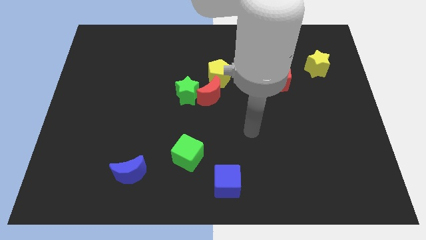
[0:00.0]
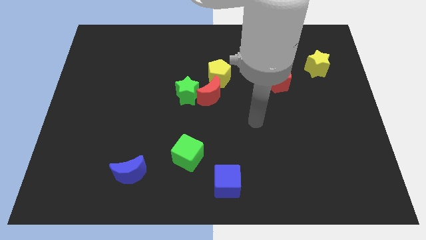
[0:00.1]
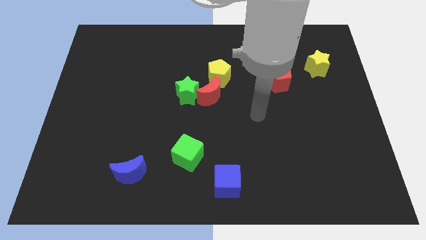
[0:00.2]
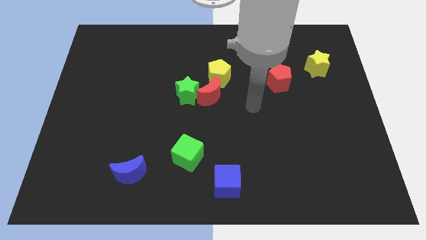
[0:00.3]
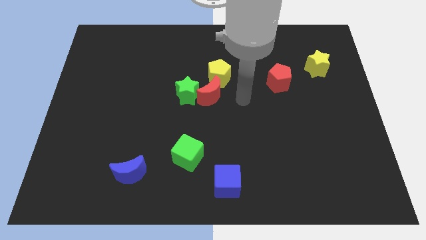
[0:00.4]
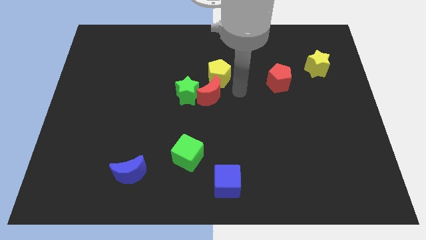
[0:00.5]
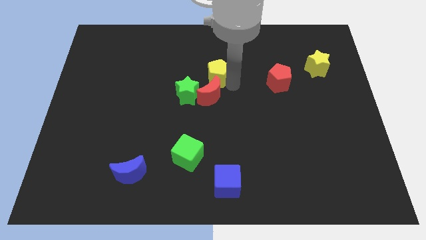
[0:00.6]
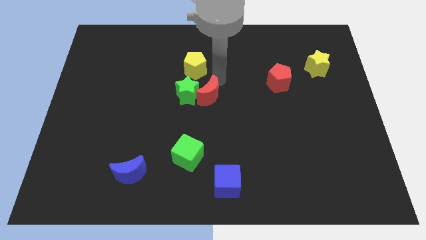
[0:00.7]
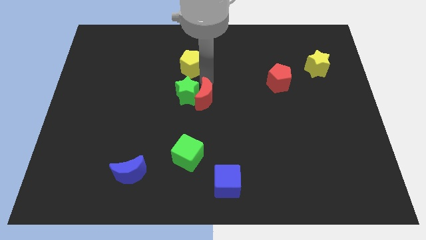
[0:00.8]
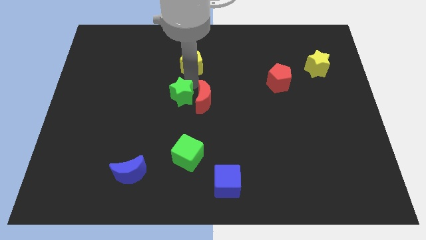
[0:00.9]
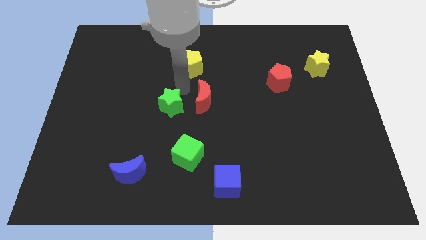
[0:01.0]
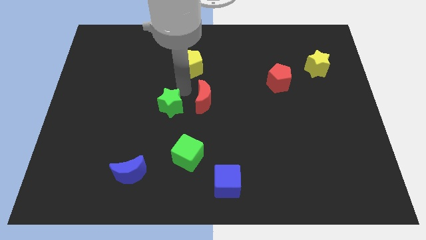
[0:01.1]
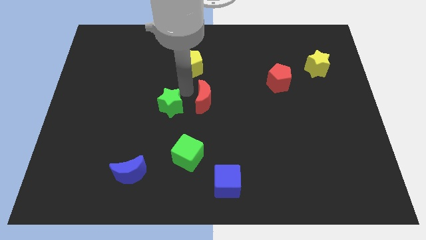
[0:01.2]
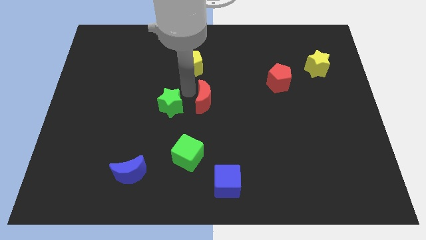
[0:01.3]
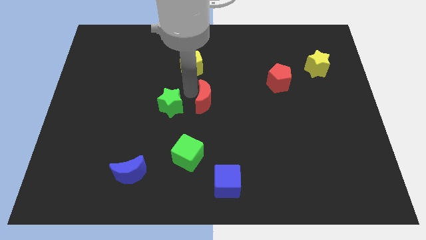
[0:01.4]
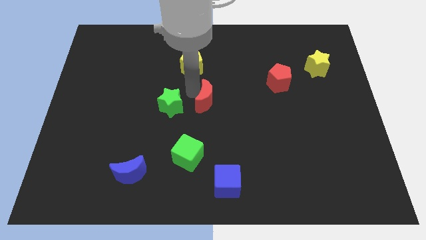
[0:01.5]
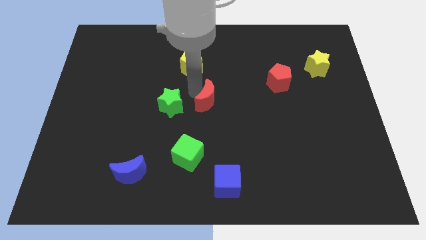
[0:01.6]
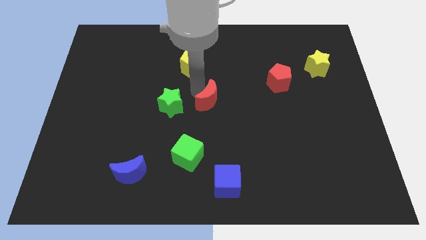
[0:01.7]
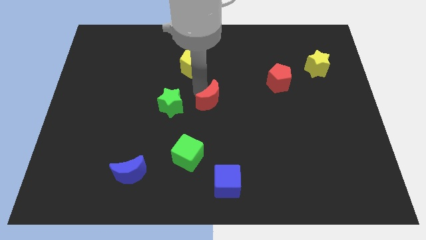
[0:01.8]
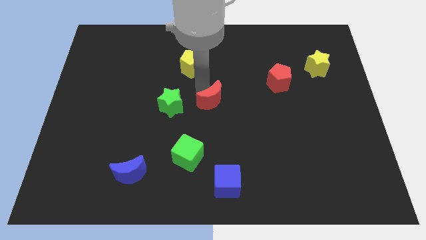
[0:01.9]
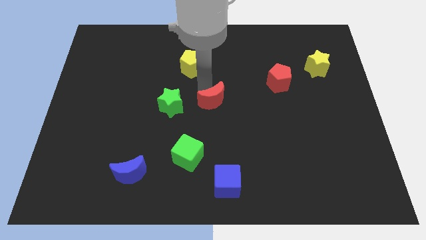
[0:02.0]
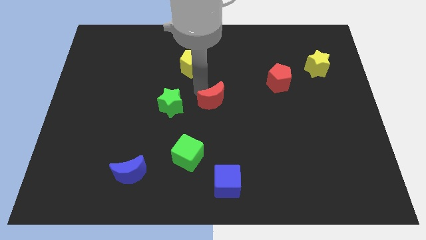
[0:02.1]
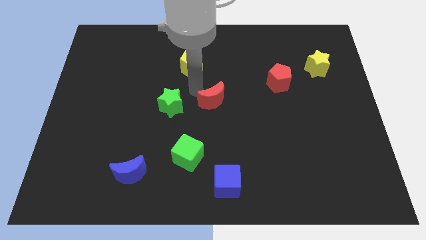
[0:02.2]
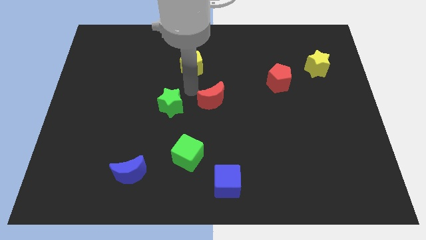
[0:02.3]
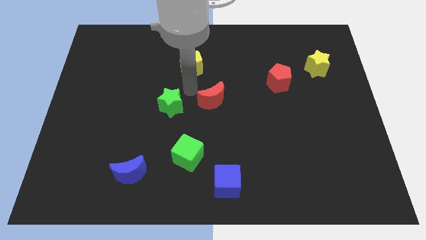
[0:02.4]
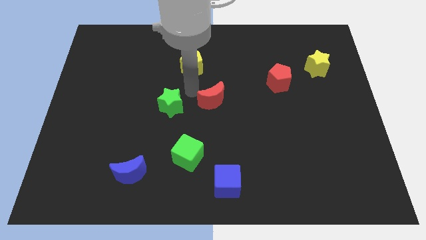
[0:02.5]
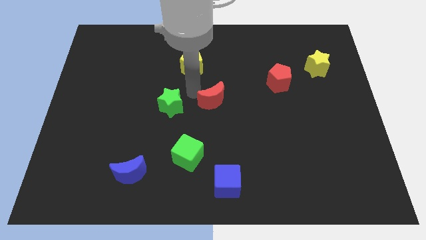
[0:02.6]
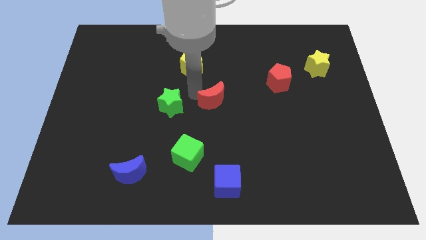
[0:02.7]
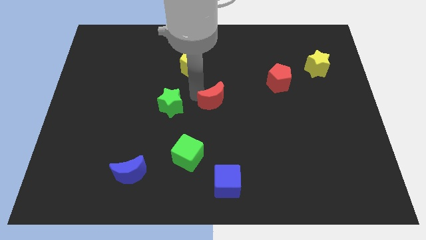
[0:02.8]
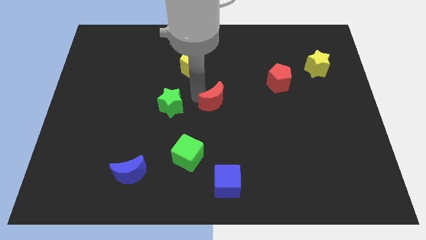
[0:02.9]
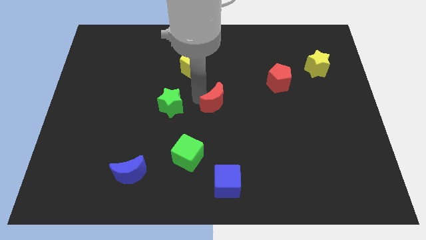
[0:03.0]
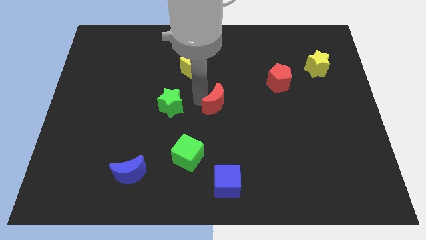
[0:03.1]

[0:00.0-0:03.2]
separate the red moon from the green star and yellow pentagon

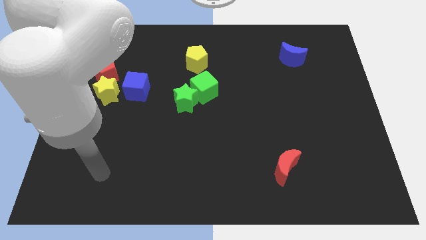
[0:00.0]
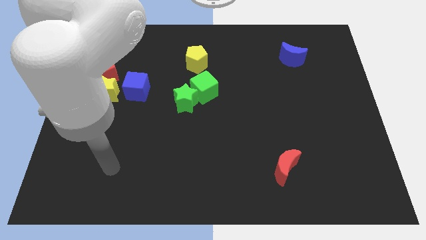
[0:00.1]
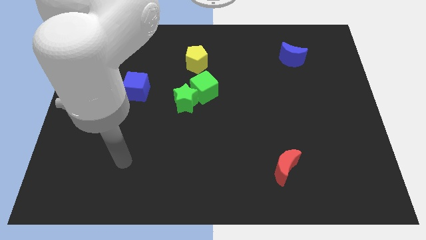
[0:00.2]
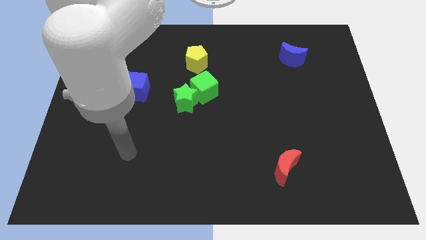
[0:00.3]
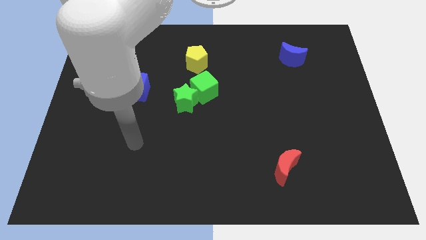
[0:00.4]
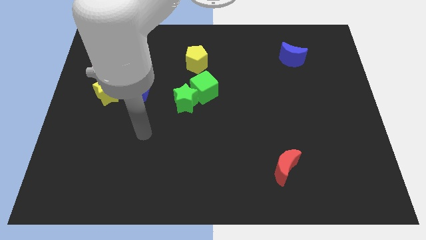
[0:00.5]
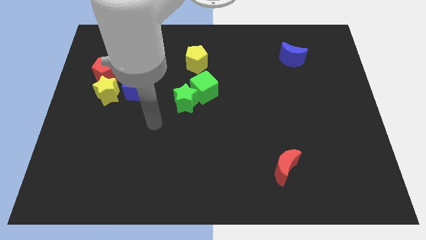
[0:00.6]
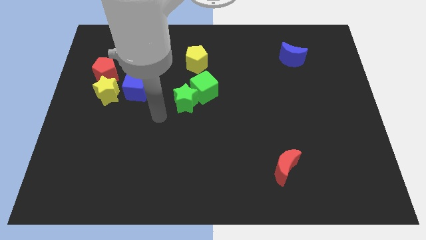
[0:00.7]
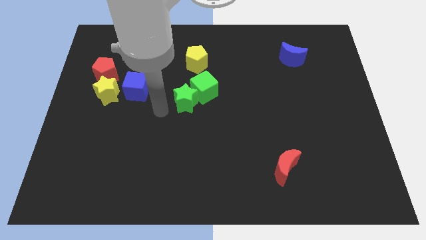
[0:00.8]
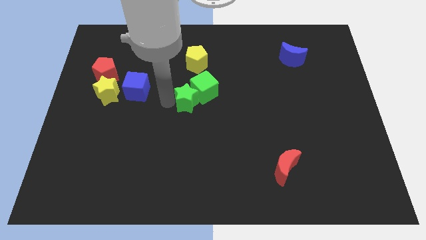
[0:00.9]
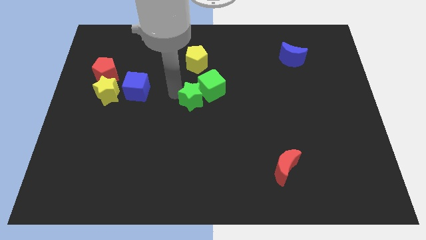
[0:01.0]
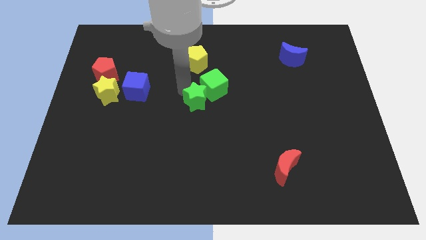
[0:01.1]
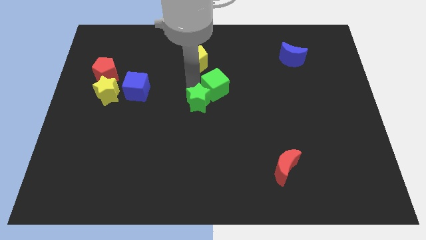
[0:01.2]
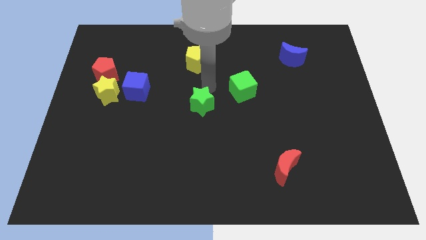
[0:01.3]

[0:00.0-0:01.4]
pull the green star apart from the green cube

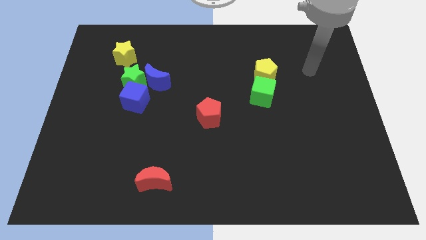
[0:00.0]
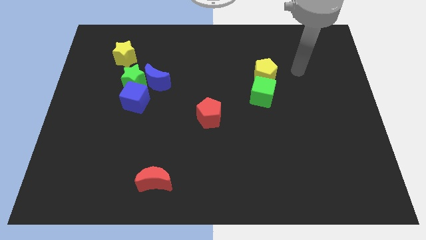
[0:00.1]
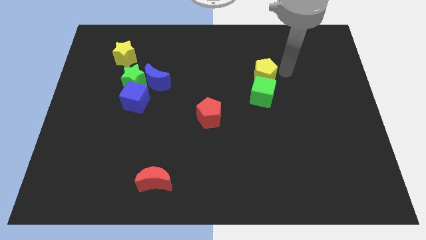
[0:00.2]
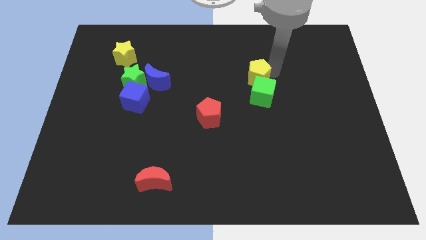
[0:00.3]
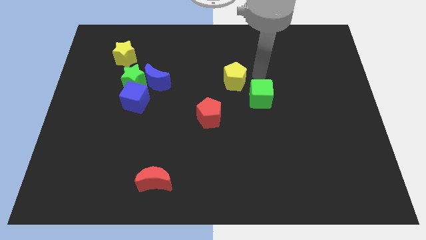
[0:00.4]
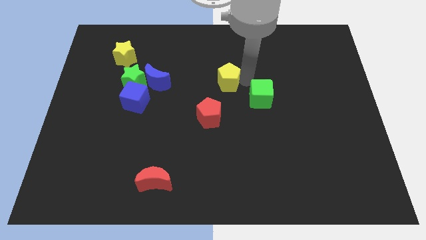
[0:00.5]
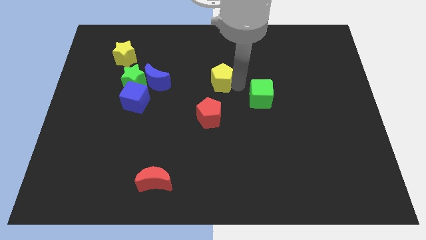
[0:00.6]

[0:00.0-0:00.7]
separate the green cube from the yellow pentagon

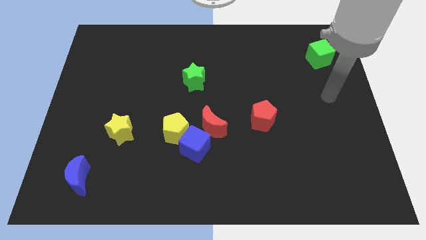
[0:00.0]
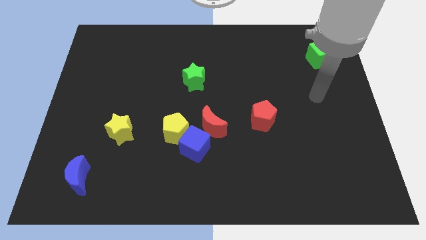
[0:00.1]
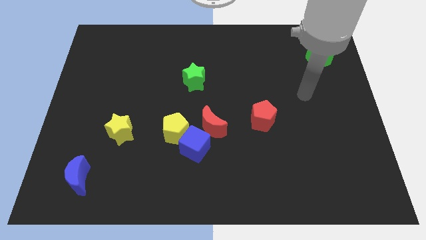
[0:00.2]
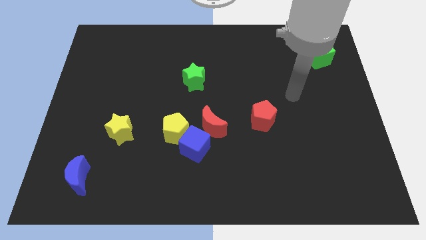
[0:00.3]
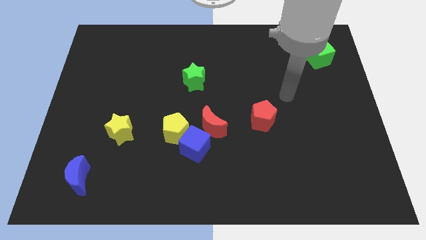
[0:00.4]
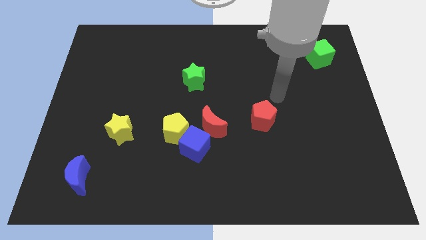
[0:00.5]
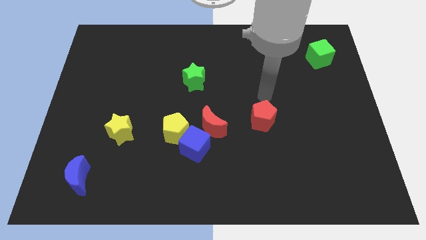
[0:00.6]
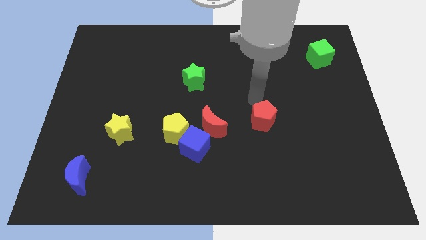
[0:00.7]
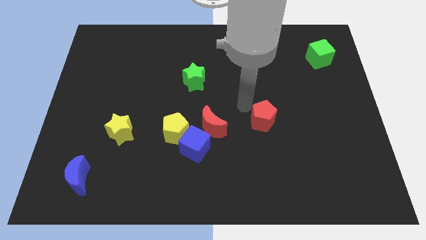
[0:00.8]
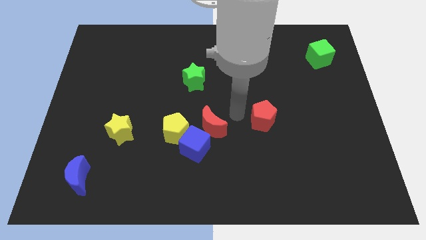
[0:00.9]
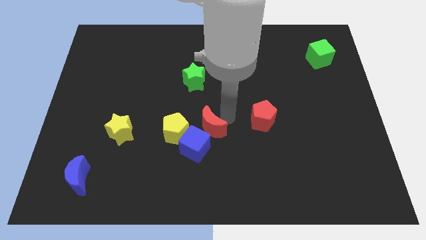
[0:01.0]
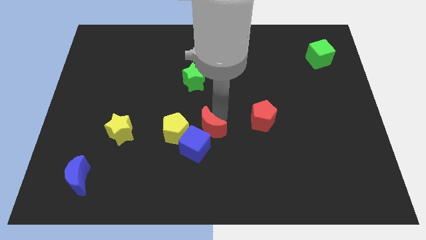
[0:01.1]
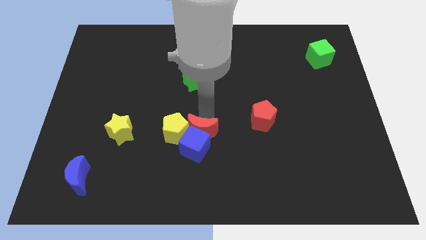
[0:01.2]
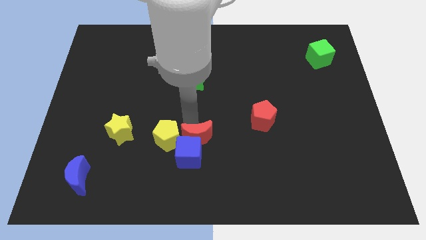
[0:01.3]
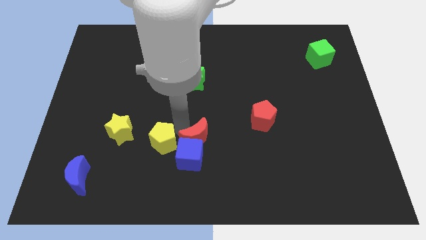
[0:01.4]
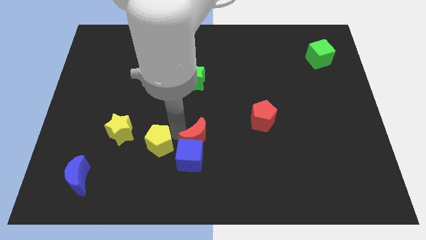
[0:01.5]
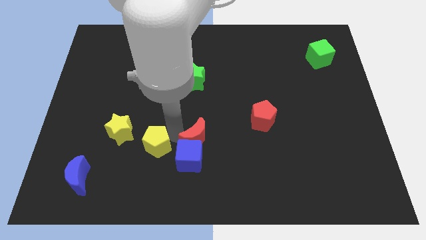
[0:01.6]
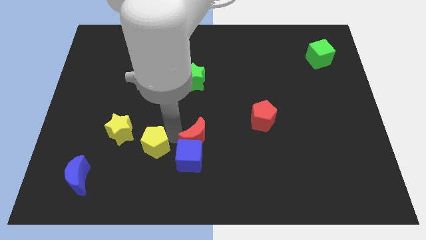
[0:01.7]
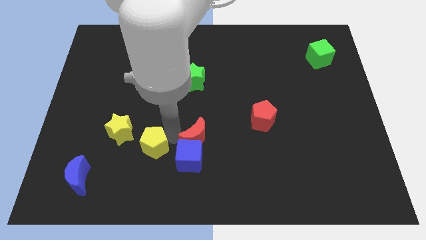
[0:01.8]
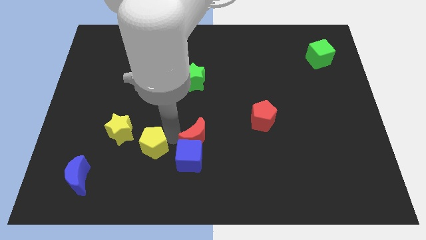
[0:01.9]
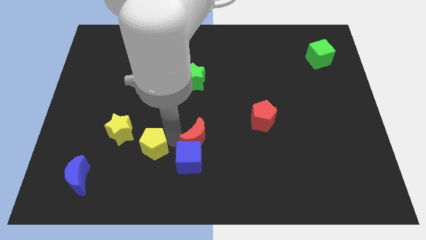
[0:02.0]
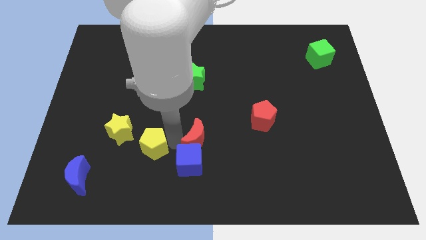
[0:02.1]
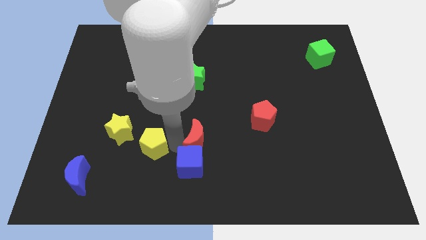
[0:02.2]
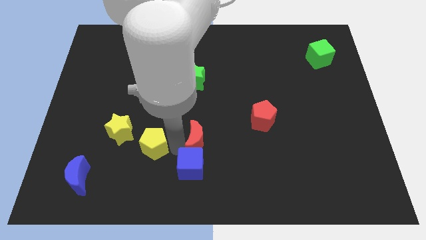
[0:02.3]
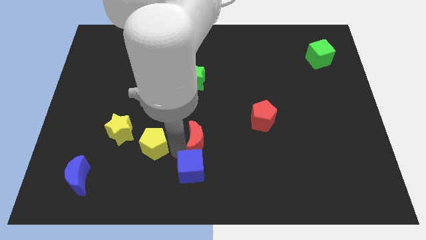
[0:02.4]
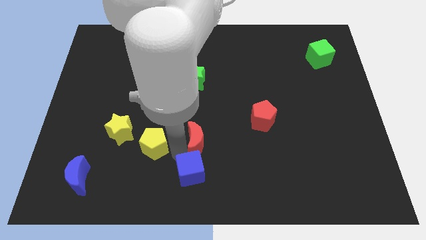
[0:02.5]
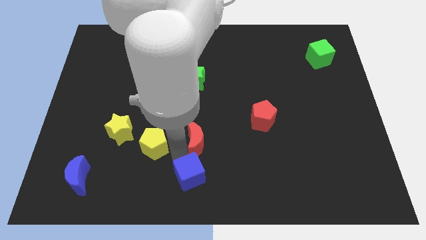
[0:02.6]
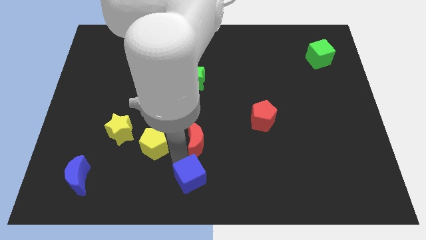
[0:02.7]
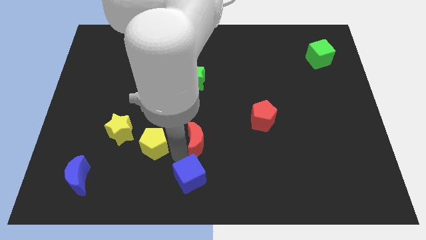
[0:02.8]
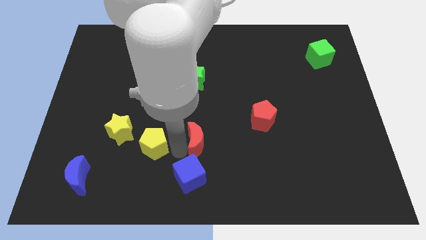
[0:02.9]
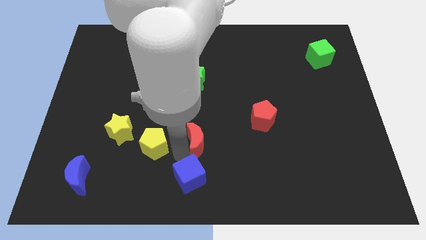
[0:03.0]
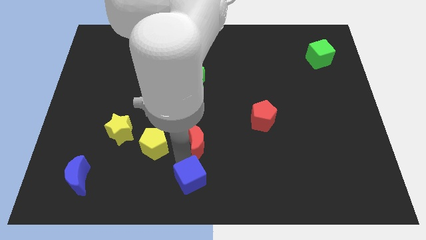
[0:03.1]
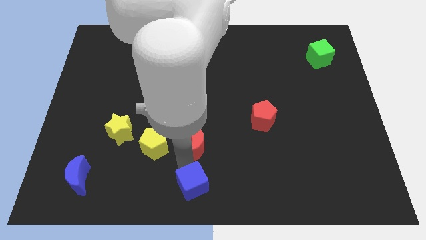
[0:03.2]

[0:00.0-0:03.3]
pull the blue cube apart from the yellow pentagon and red moon

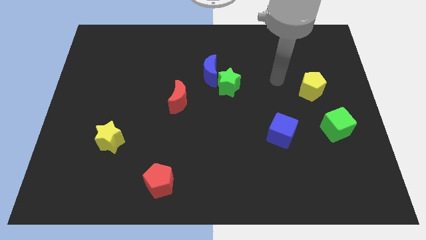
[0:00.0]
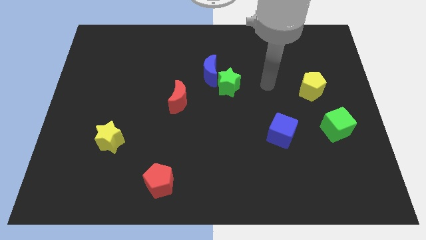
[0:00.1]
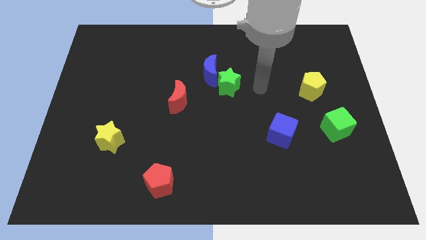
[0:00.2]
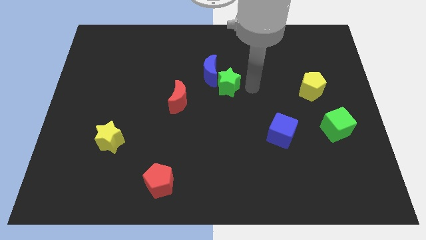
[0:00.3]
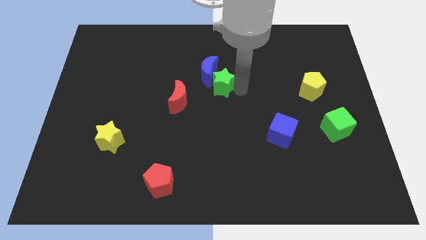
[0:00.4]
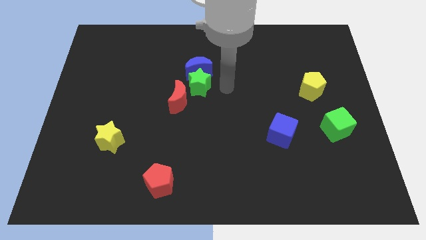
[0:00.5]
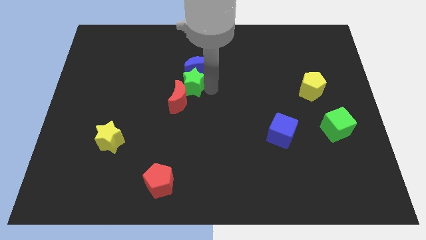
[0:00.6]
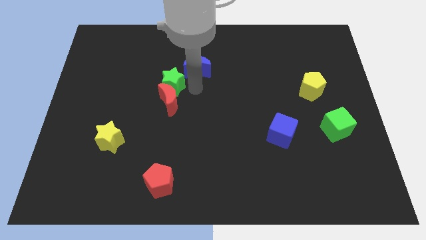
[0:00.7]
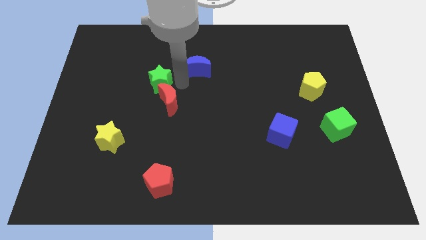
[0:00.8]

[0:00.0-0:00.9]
move the blue moon away from the green star

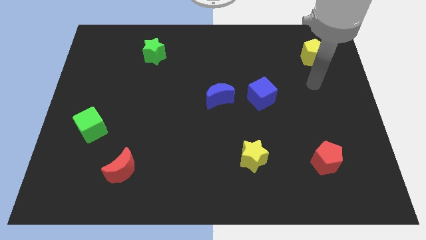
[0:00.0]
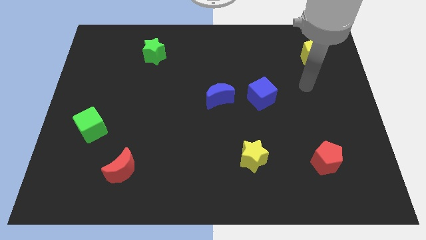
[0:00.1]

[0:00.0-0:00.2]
pull the blue moon apart from the blue cube
